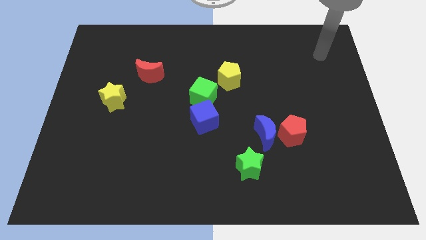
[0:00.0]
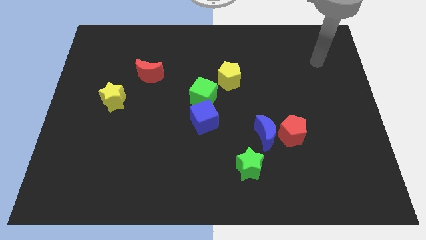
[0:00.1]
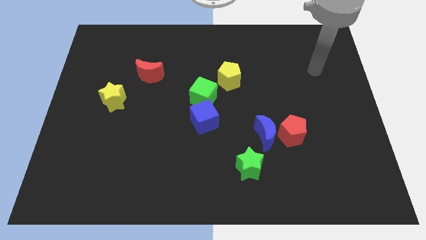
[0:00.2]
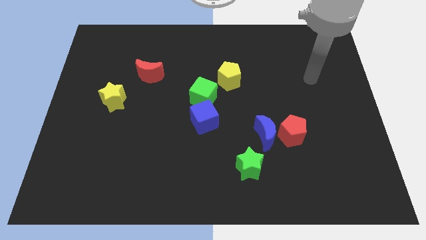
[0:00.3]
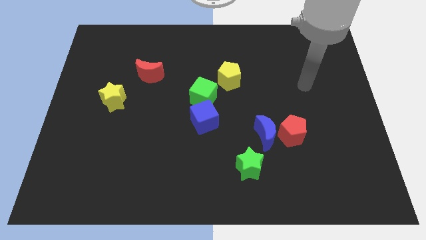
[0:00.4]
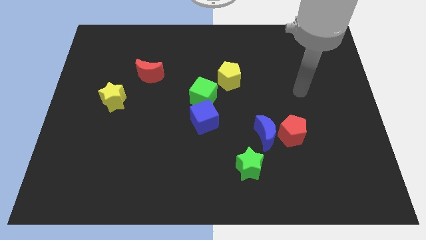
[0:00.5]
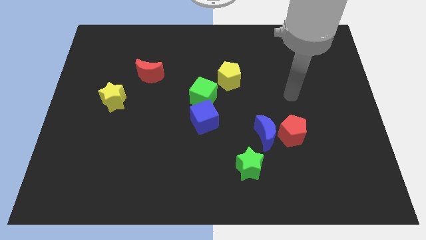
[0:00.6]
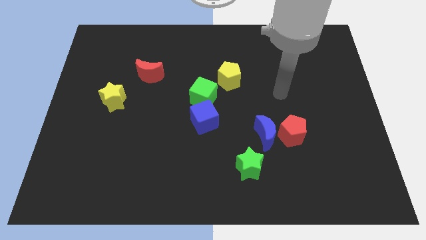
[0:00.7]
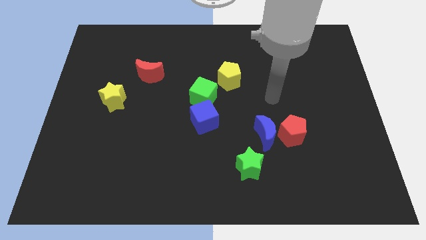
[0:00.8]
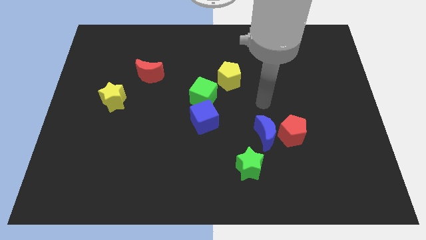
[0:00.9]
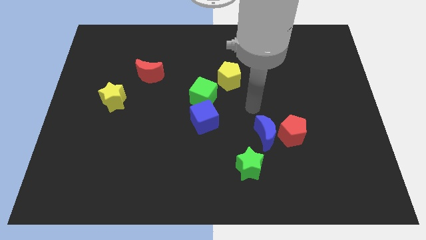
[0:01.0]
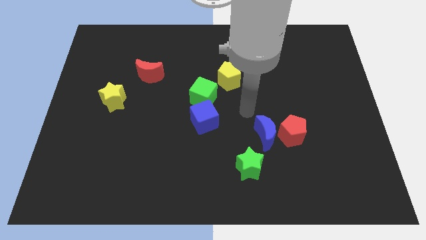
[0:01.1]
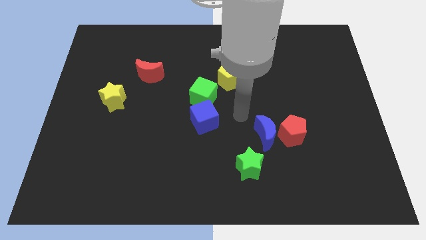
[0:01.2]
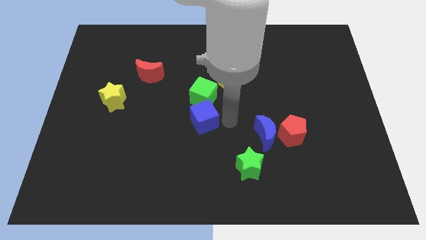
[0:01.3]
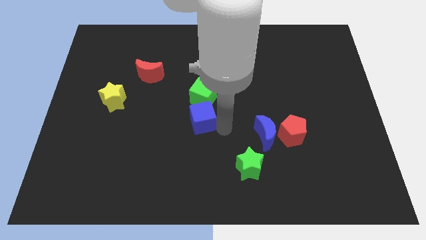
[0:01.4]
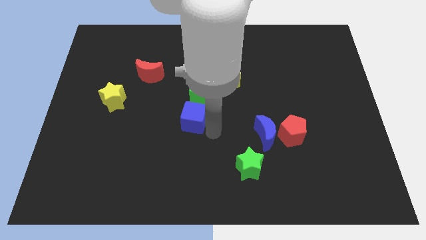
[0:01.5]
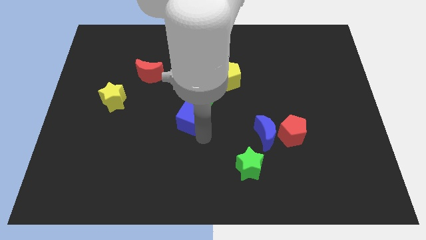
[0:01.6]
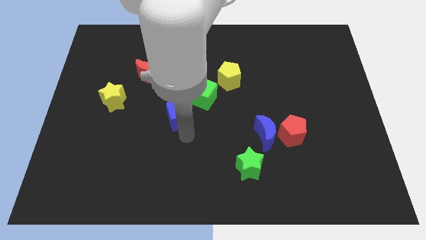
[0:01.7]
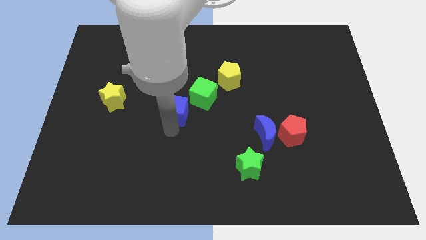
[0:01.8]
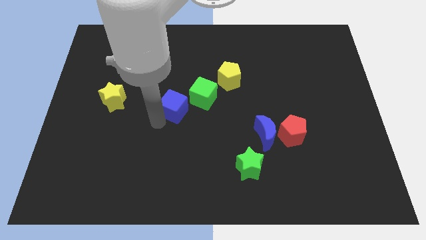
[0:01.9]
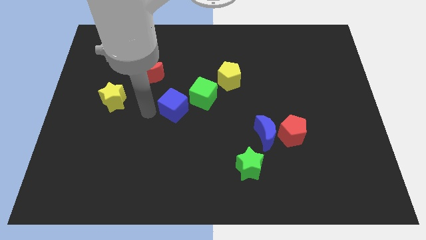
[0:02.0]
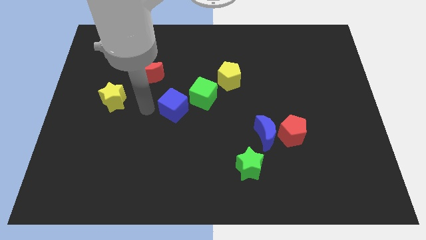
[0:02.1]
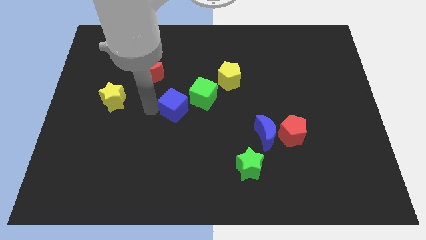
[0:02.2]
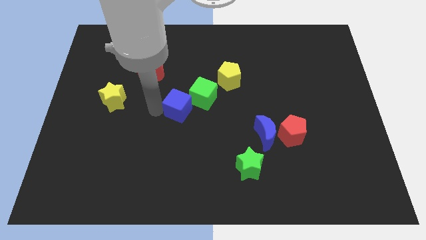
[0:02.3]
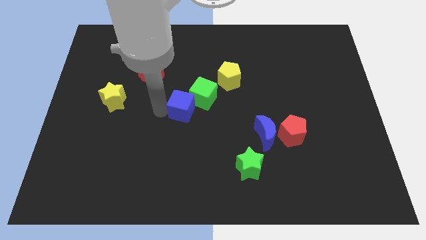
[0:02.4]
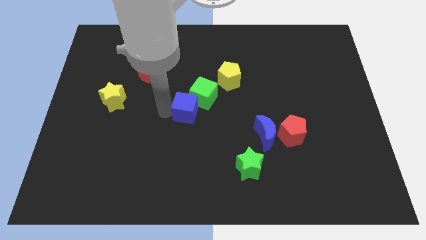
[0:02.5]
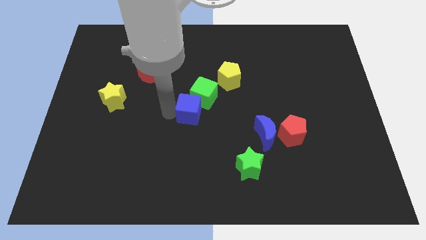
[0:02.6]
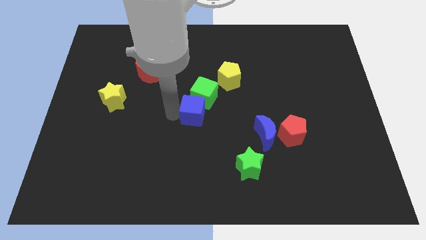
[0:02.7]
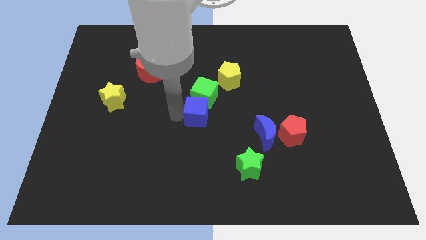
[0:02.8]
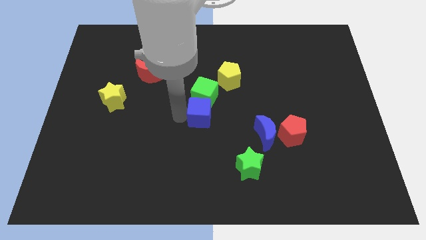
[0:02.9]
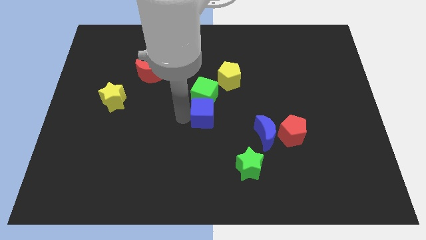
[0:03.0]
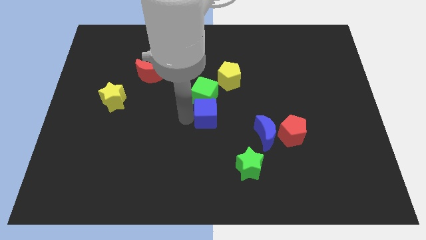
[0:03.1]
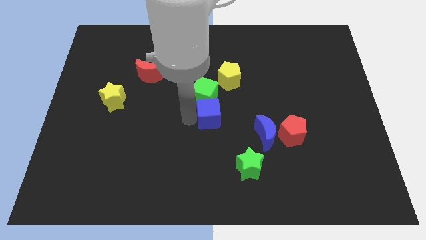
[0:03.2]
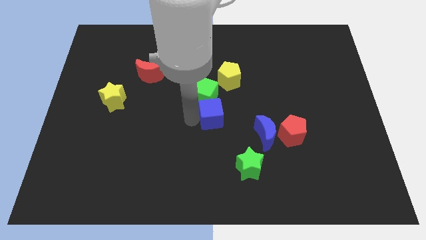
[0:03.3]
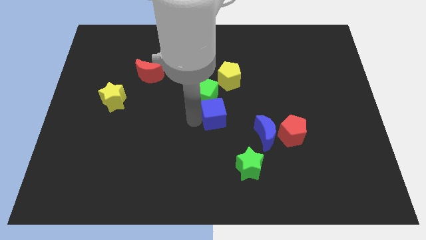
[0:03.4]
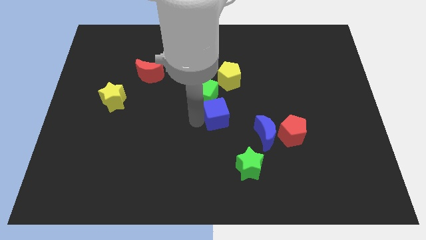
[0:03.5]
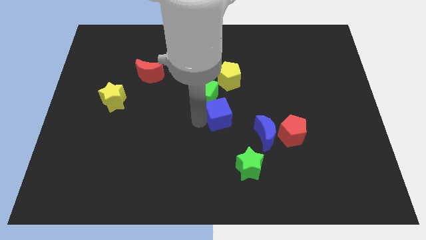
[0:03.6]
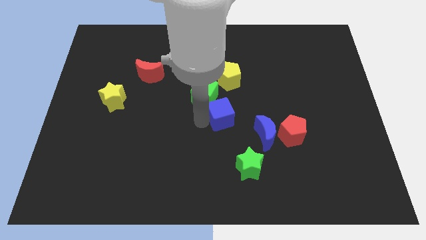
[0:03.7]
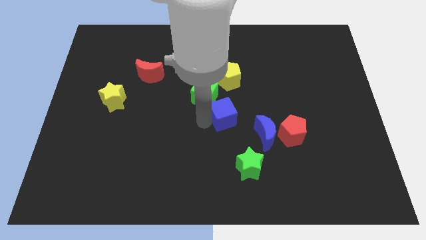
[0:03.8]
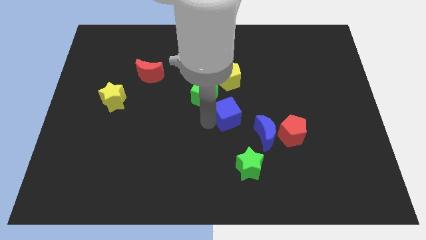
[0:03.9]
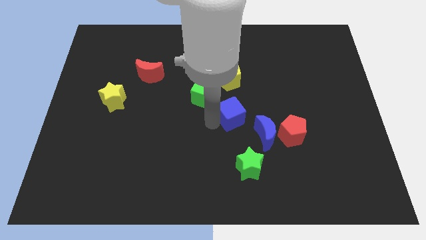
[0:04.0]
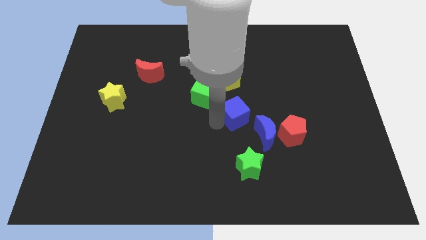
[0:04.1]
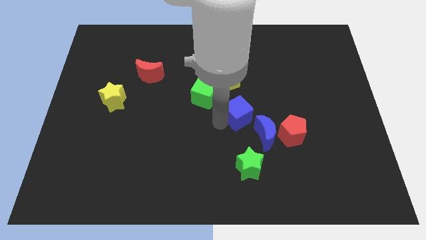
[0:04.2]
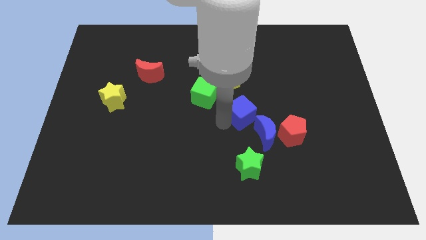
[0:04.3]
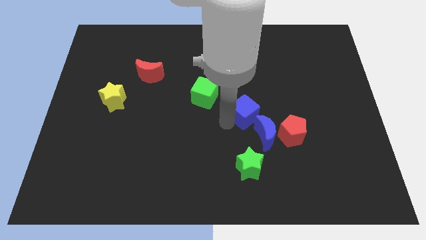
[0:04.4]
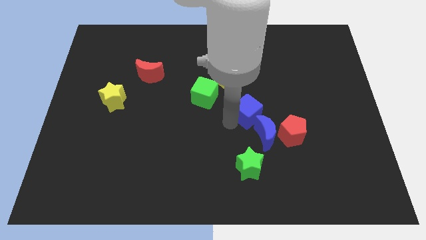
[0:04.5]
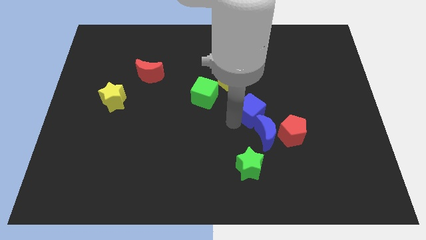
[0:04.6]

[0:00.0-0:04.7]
put the blue cube diagonally down and to the right of the yellow pentagon

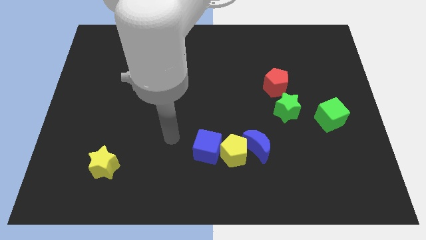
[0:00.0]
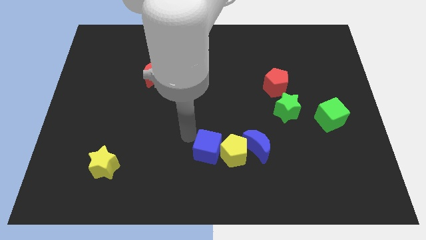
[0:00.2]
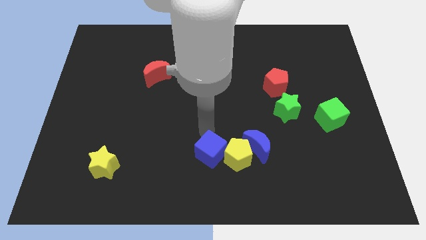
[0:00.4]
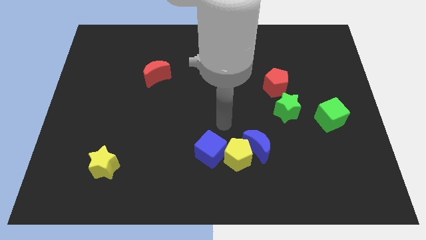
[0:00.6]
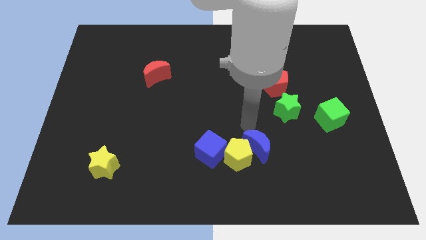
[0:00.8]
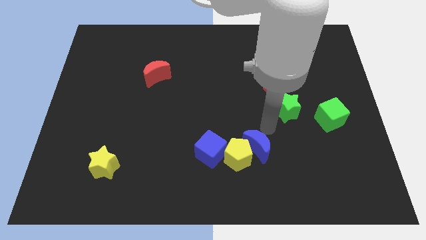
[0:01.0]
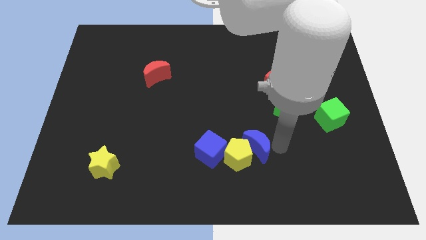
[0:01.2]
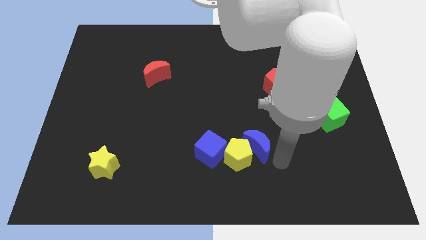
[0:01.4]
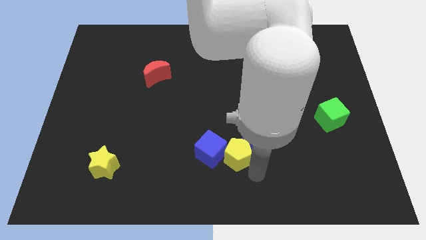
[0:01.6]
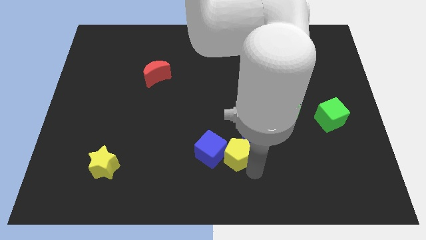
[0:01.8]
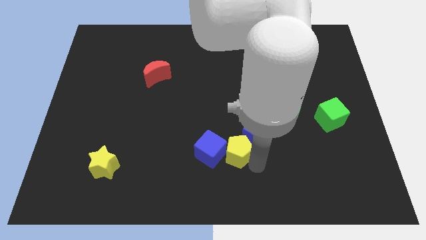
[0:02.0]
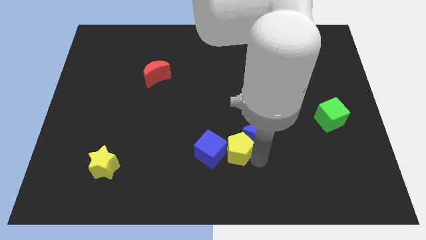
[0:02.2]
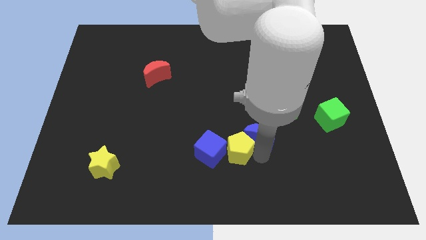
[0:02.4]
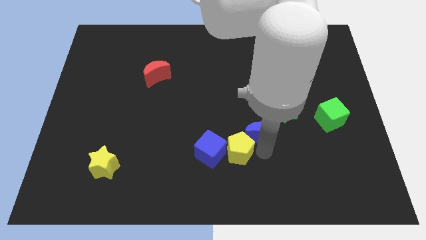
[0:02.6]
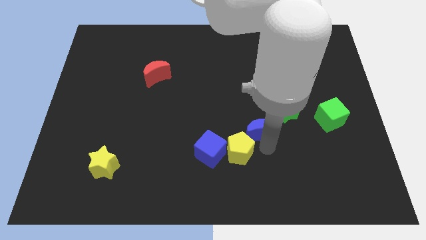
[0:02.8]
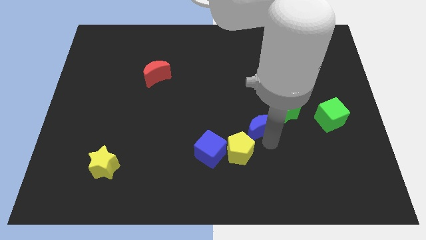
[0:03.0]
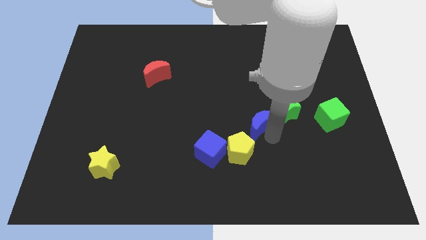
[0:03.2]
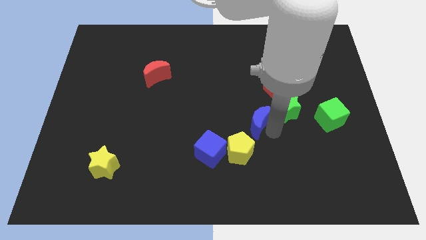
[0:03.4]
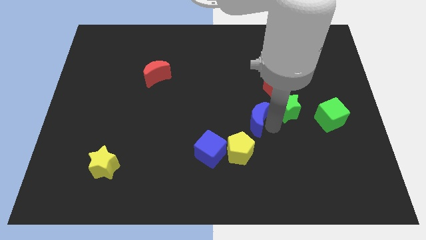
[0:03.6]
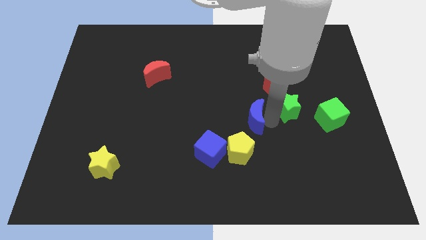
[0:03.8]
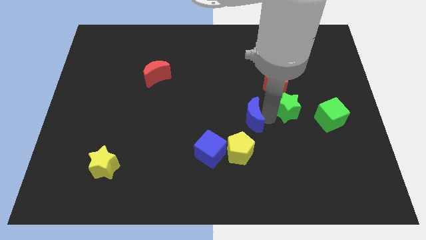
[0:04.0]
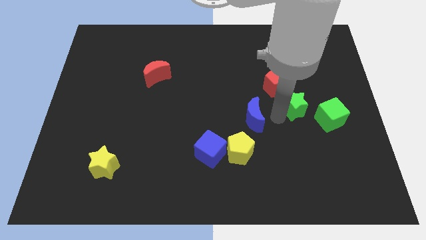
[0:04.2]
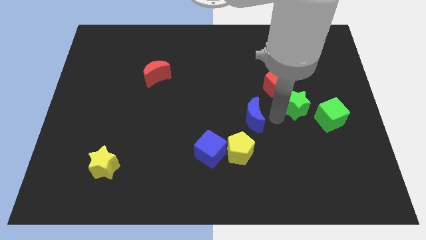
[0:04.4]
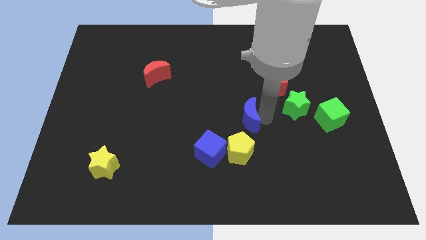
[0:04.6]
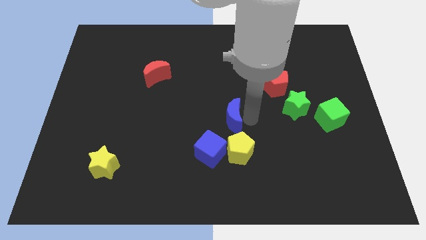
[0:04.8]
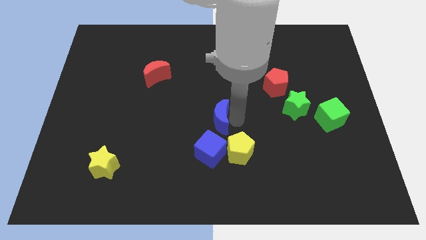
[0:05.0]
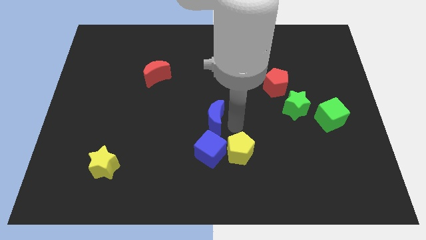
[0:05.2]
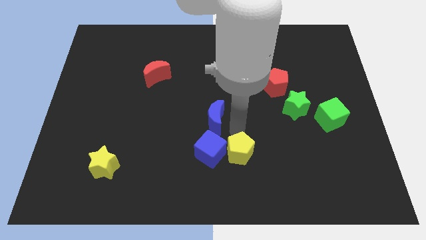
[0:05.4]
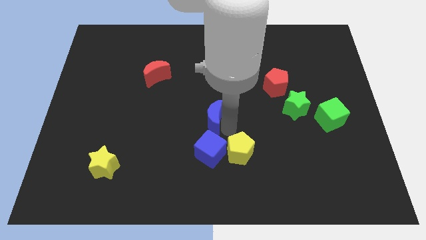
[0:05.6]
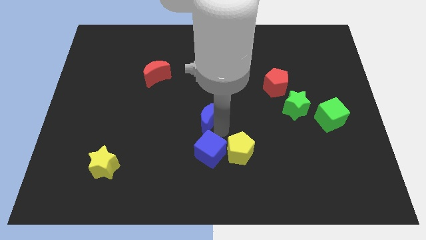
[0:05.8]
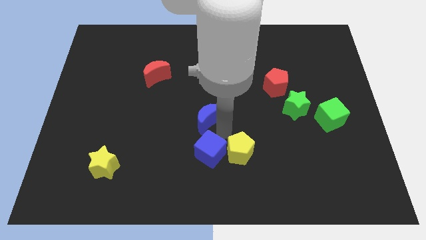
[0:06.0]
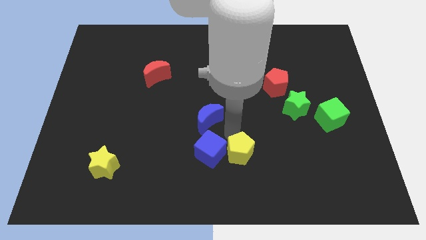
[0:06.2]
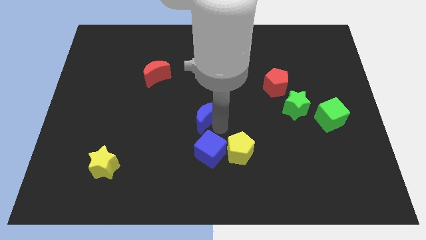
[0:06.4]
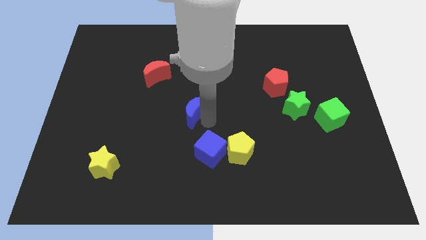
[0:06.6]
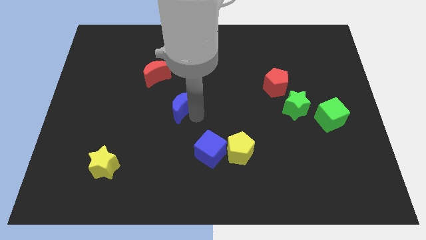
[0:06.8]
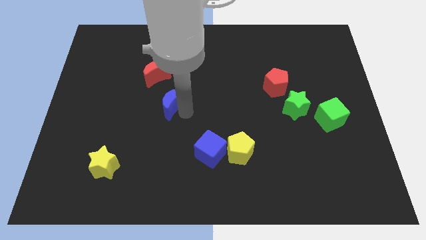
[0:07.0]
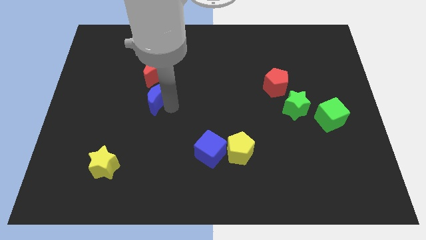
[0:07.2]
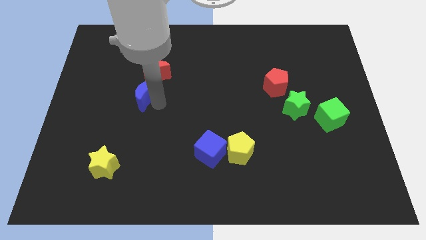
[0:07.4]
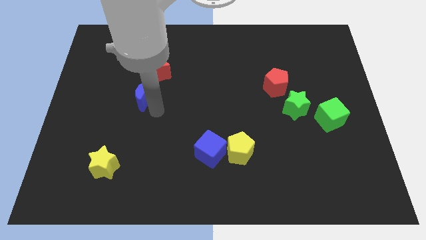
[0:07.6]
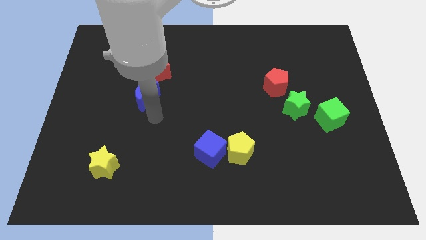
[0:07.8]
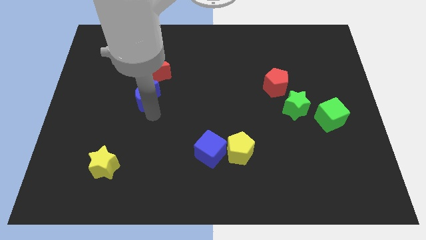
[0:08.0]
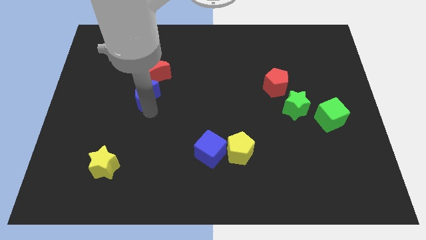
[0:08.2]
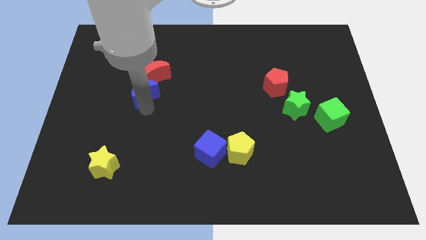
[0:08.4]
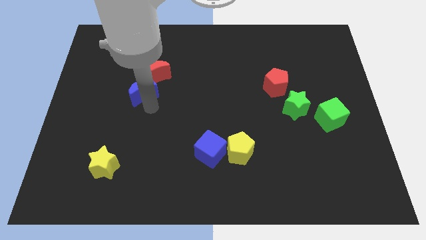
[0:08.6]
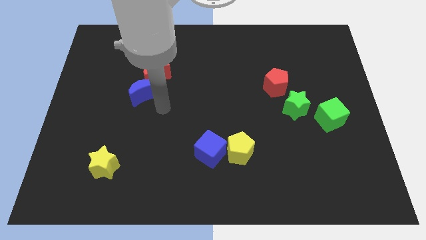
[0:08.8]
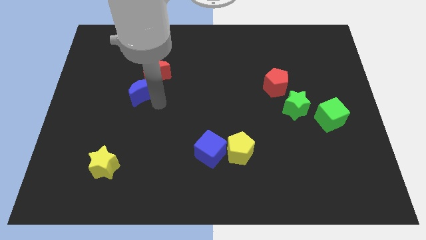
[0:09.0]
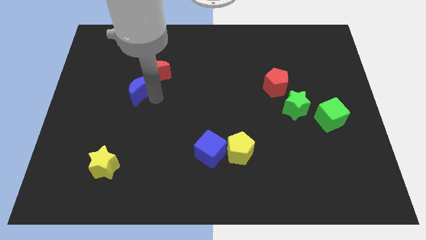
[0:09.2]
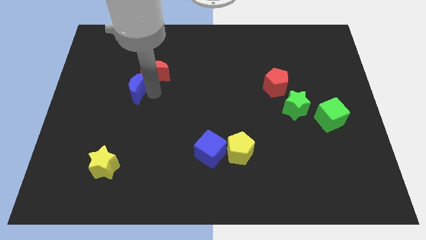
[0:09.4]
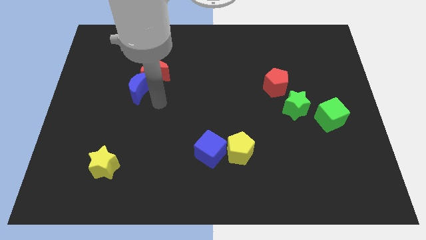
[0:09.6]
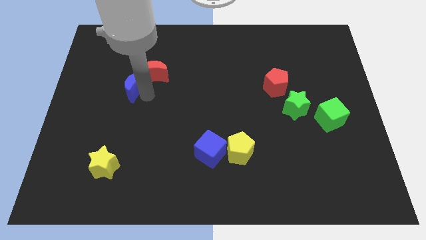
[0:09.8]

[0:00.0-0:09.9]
move the blue moon just left of the red moon
